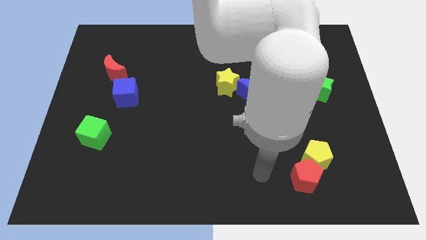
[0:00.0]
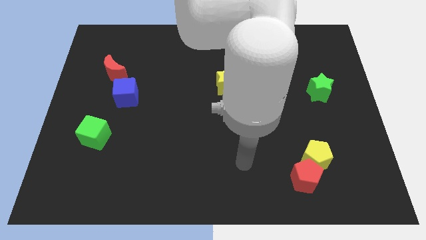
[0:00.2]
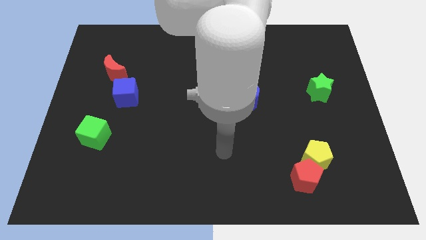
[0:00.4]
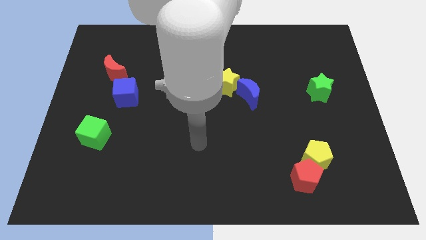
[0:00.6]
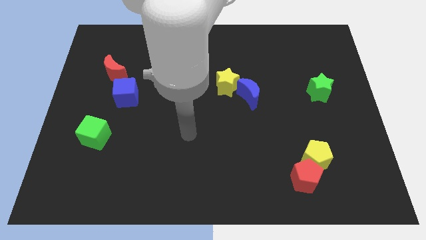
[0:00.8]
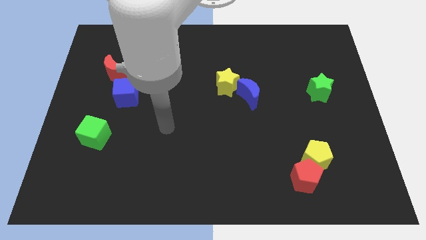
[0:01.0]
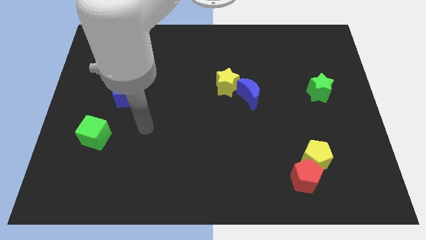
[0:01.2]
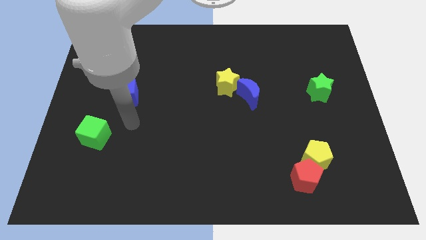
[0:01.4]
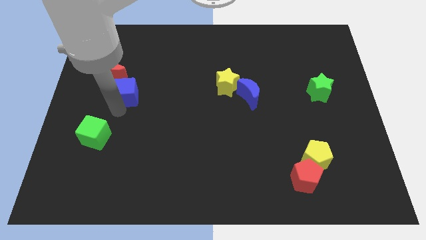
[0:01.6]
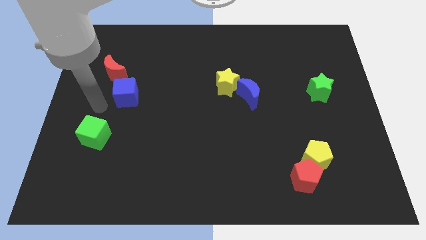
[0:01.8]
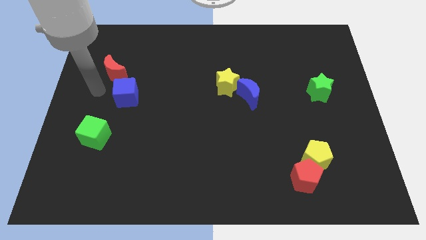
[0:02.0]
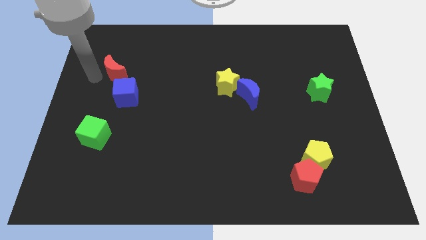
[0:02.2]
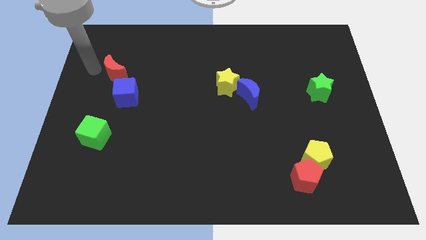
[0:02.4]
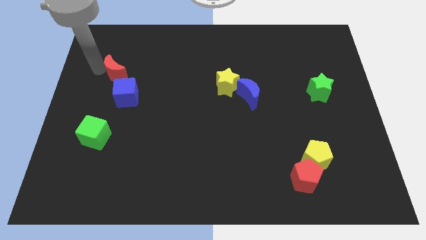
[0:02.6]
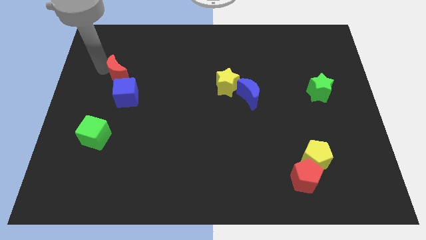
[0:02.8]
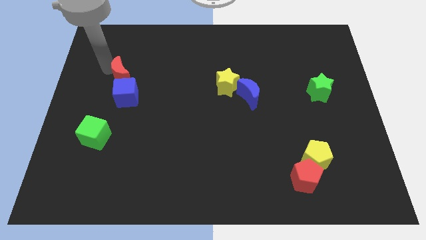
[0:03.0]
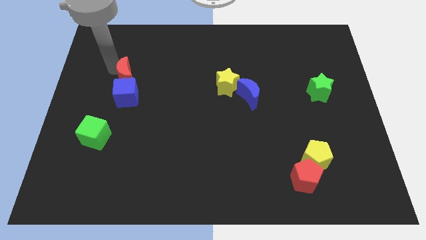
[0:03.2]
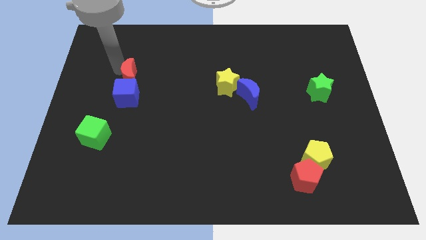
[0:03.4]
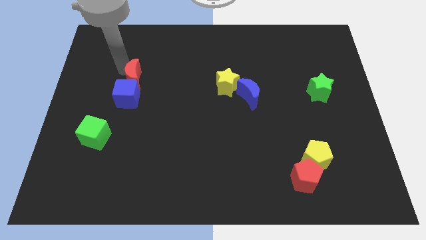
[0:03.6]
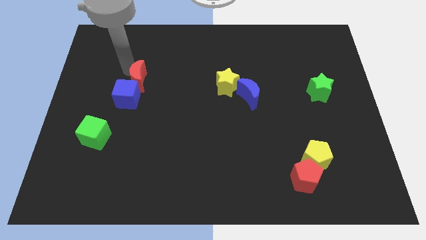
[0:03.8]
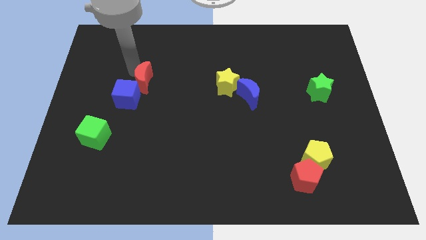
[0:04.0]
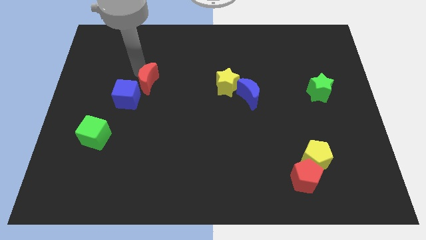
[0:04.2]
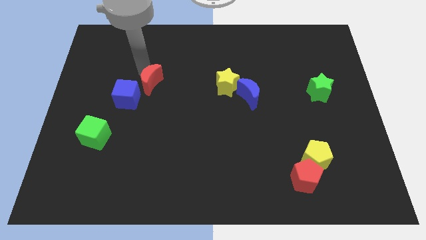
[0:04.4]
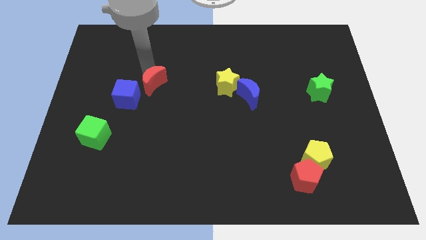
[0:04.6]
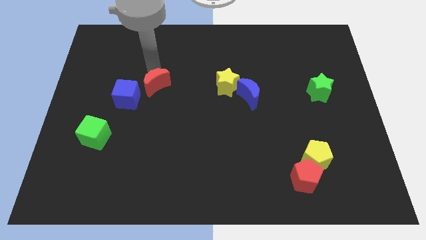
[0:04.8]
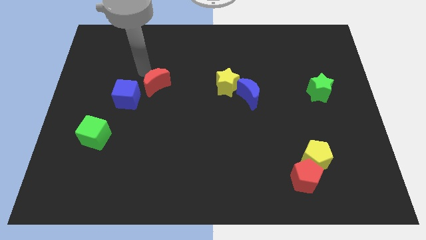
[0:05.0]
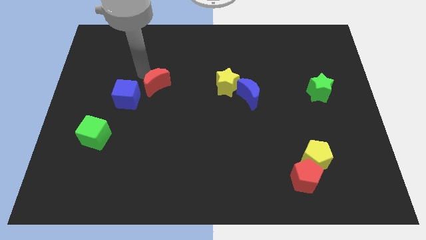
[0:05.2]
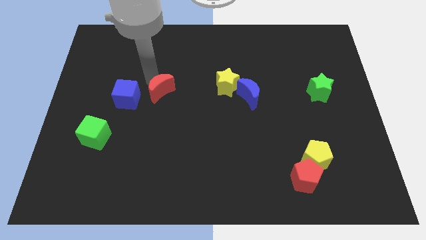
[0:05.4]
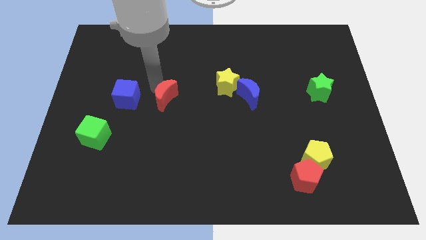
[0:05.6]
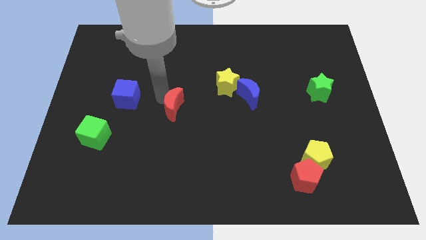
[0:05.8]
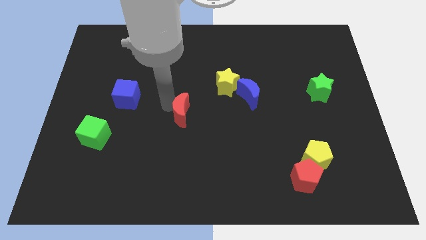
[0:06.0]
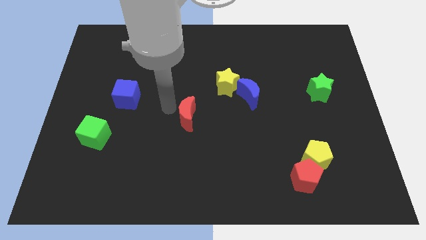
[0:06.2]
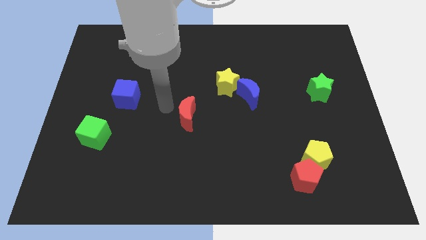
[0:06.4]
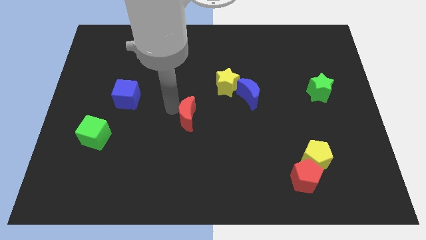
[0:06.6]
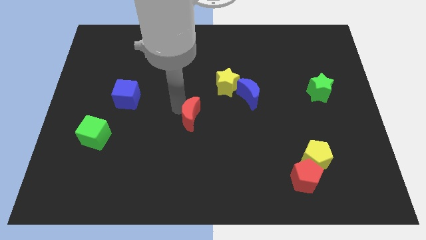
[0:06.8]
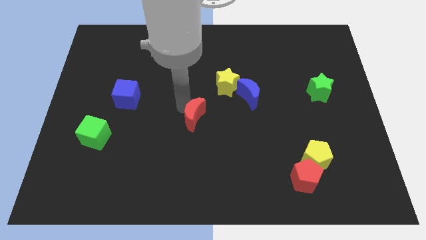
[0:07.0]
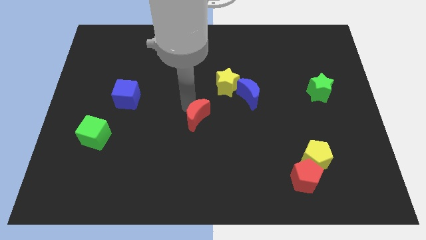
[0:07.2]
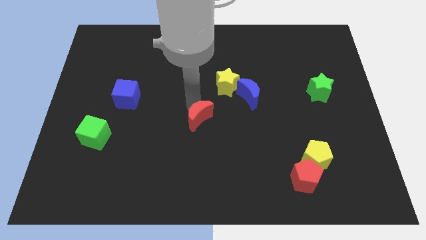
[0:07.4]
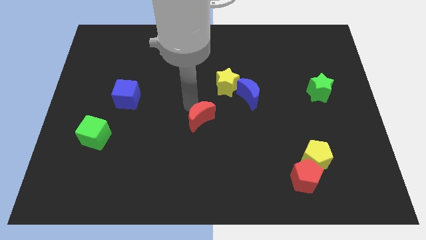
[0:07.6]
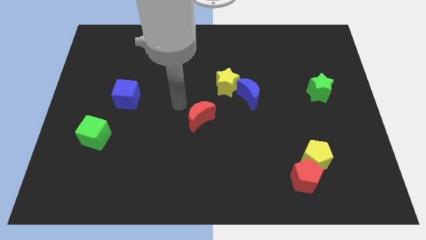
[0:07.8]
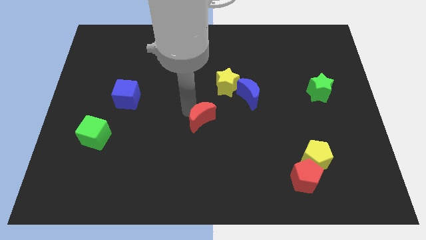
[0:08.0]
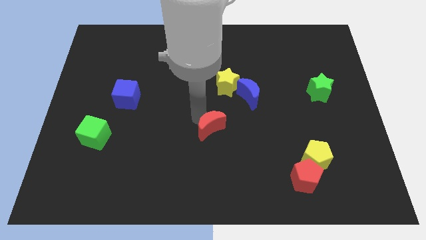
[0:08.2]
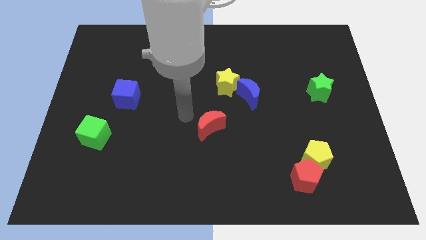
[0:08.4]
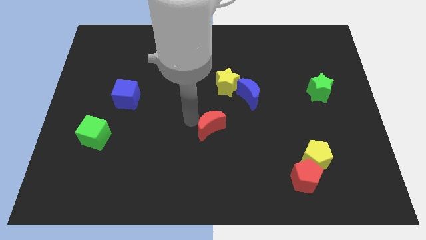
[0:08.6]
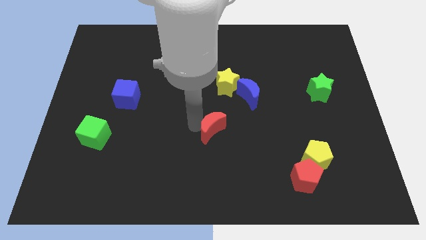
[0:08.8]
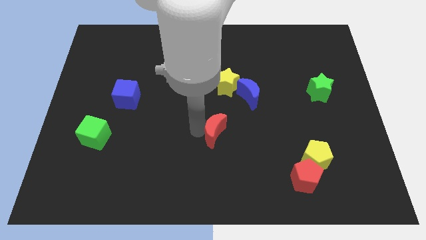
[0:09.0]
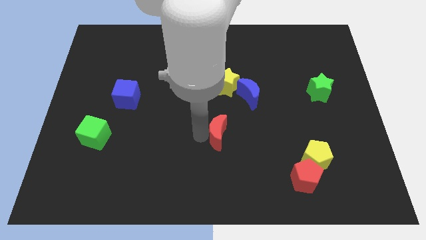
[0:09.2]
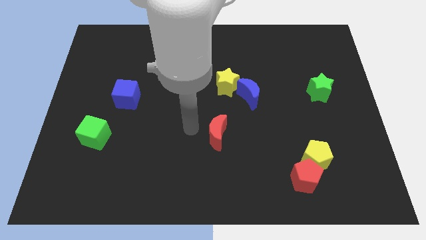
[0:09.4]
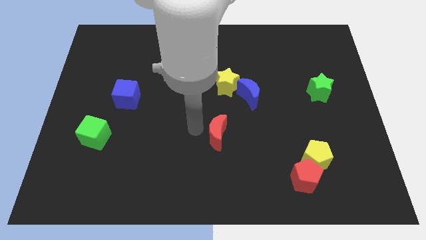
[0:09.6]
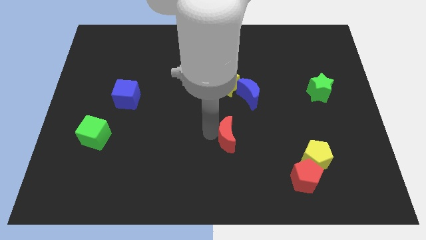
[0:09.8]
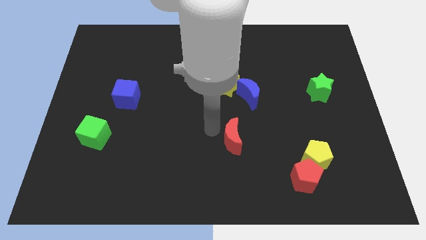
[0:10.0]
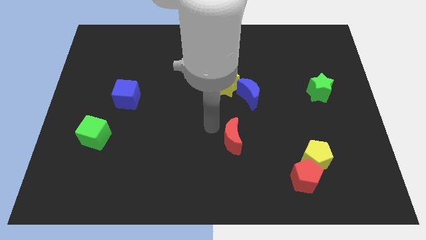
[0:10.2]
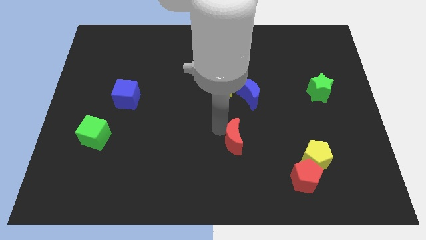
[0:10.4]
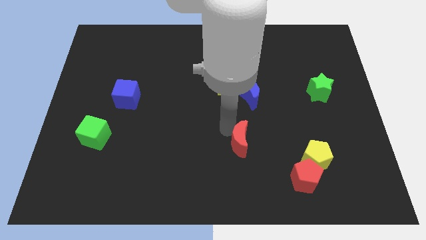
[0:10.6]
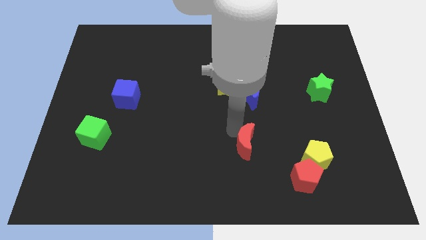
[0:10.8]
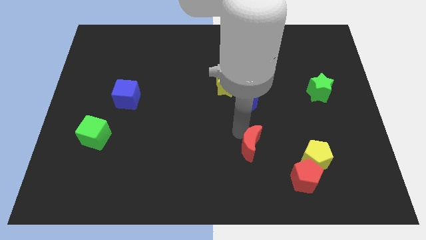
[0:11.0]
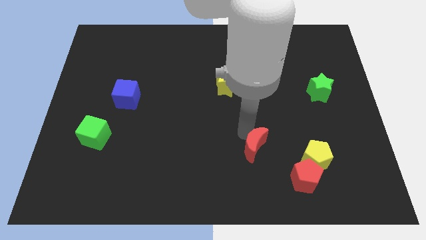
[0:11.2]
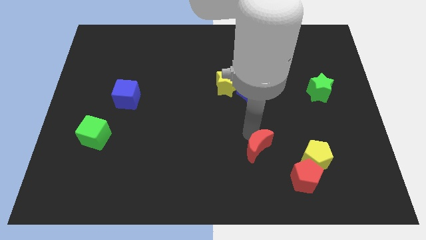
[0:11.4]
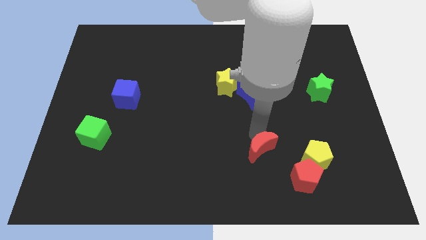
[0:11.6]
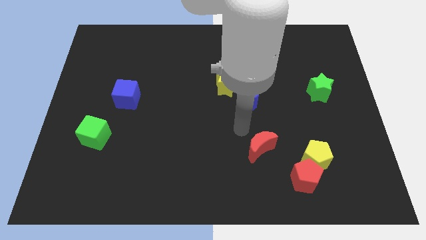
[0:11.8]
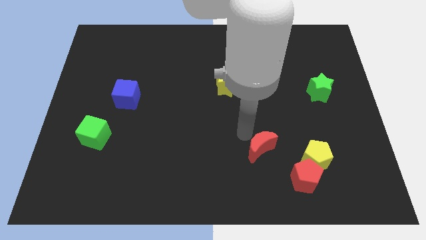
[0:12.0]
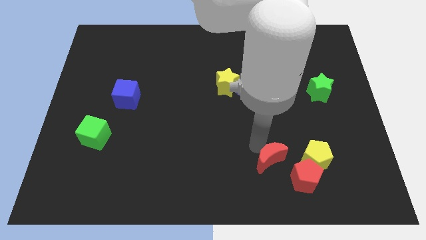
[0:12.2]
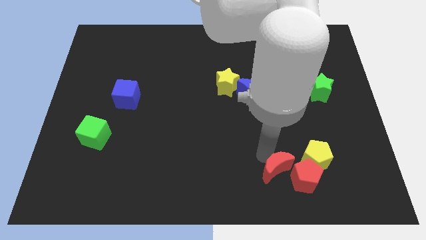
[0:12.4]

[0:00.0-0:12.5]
move the red moon close to the red pentagon

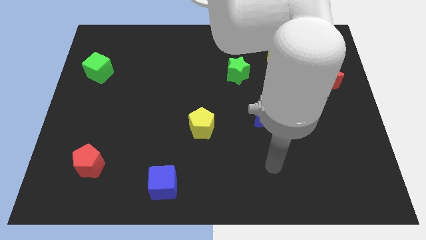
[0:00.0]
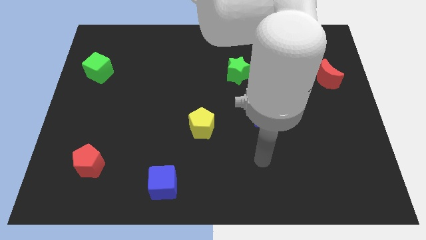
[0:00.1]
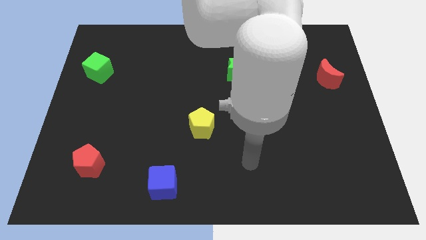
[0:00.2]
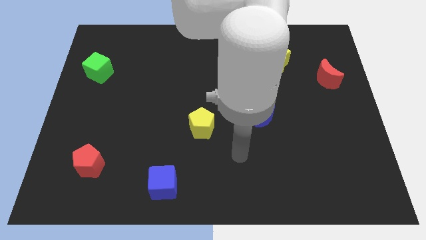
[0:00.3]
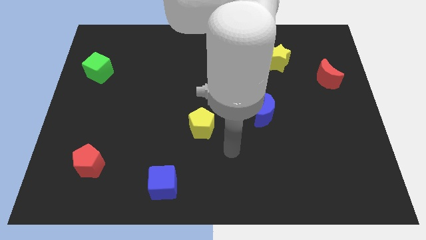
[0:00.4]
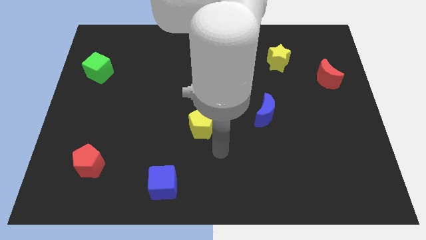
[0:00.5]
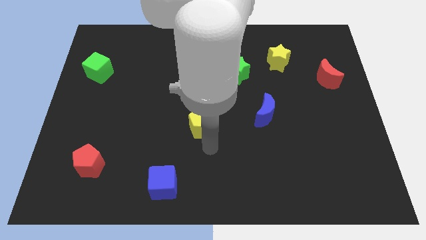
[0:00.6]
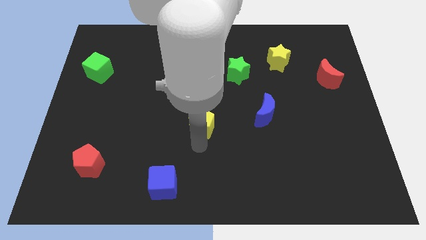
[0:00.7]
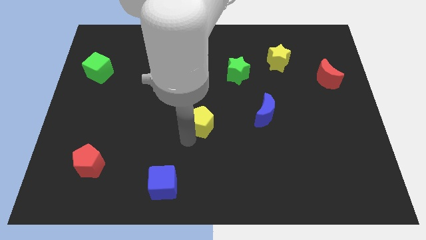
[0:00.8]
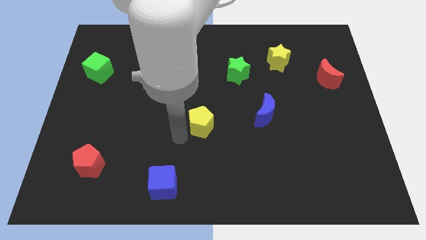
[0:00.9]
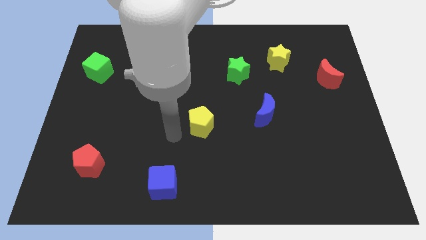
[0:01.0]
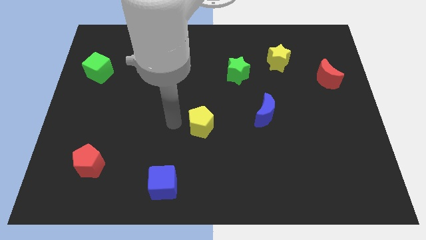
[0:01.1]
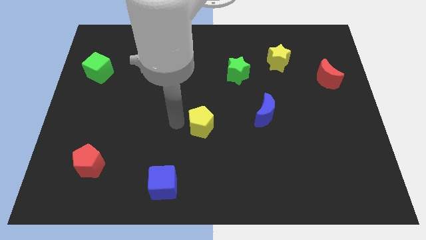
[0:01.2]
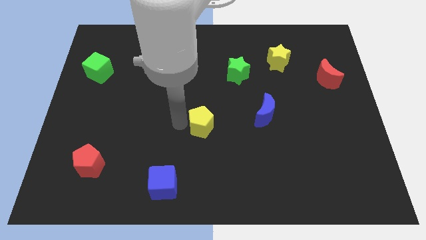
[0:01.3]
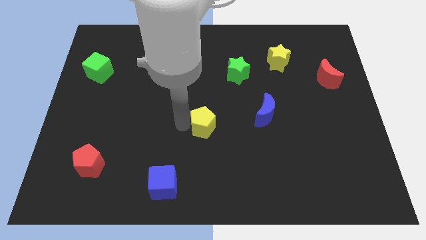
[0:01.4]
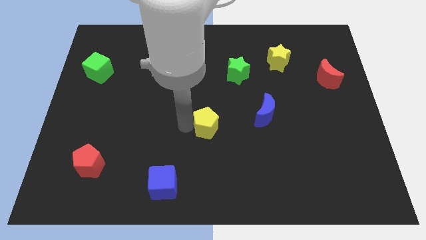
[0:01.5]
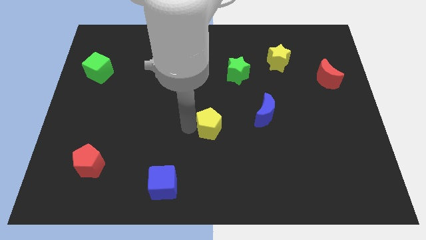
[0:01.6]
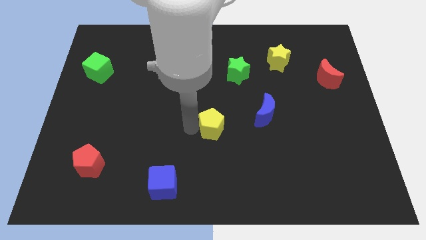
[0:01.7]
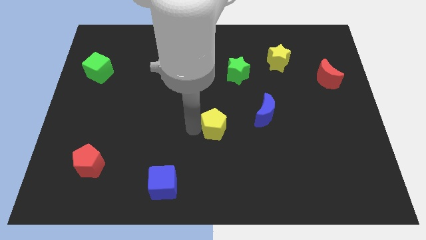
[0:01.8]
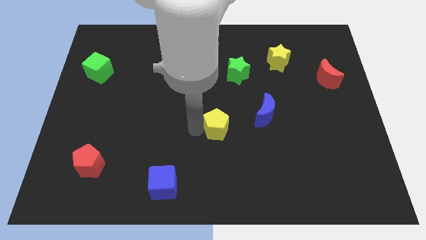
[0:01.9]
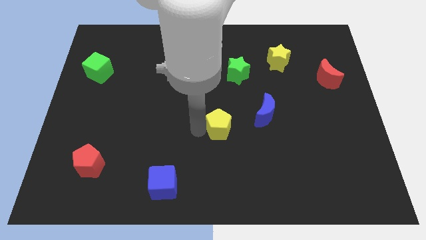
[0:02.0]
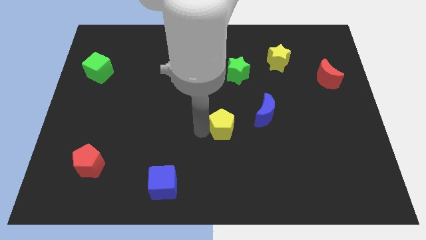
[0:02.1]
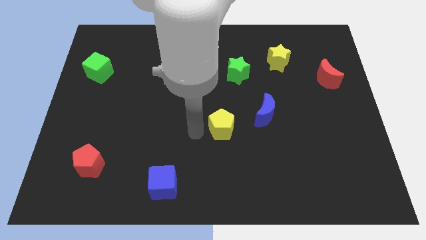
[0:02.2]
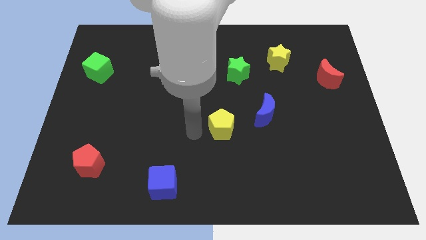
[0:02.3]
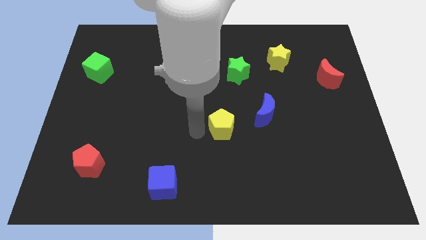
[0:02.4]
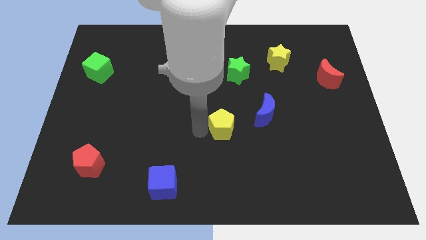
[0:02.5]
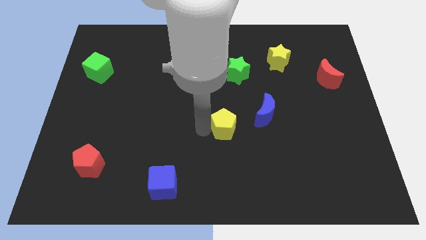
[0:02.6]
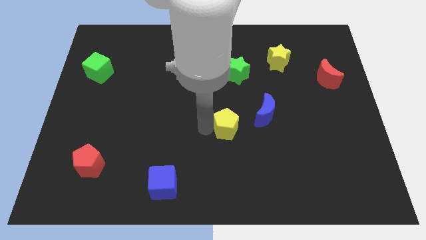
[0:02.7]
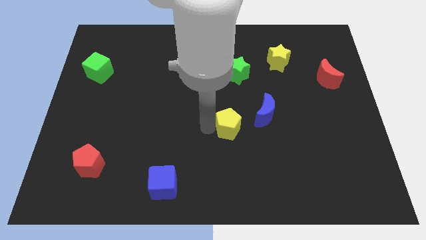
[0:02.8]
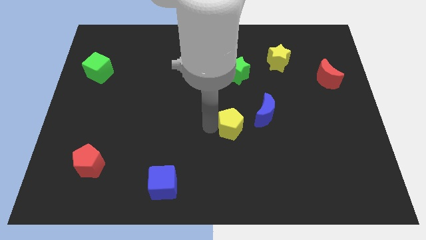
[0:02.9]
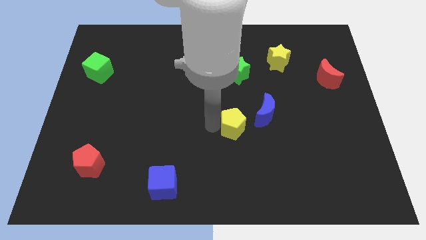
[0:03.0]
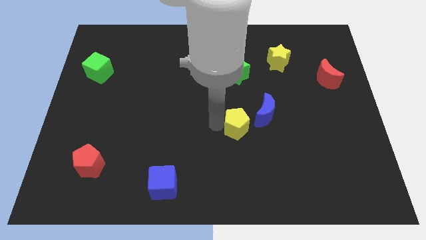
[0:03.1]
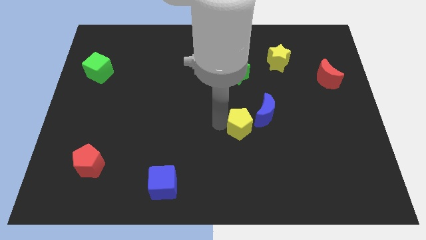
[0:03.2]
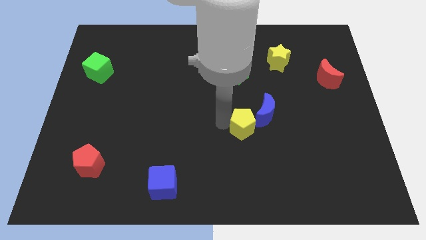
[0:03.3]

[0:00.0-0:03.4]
slide the yellow pentagon next to the blue moon
